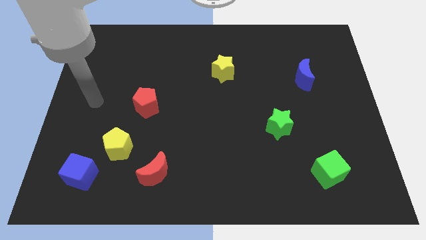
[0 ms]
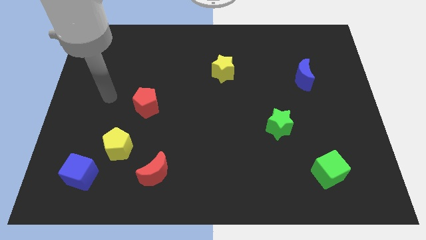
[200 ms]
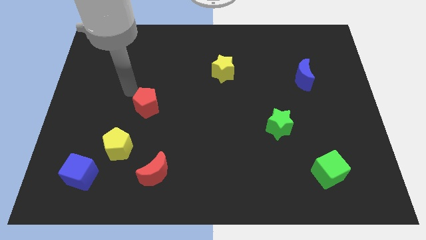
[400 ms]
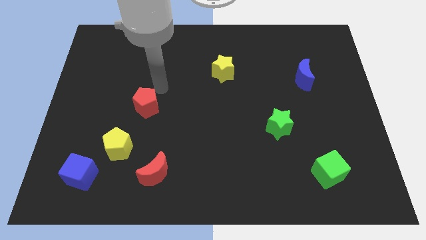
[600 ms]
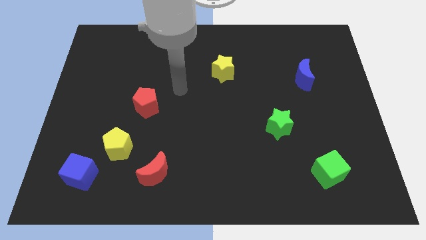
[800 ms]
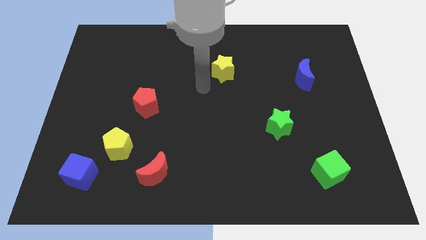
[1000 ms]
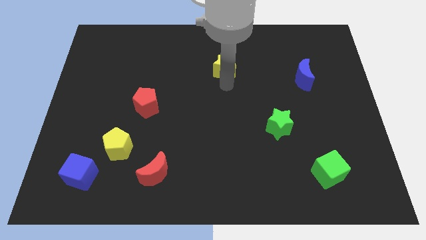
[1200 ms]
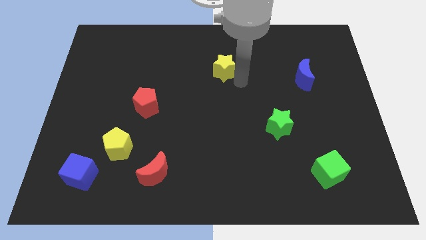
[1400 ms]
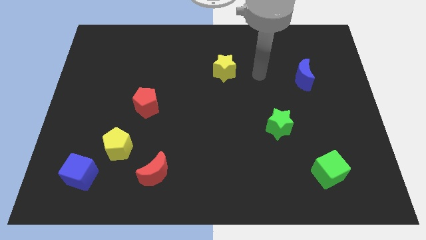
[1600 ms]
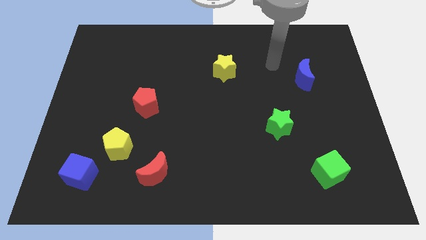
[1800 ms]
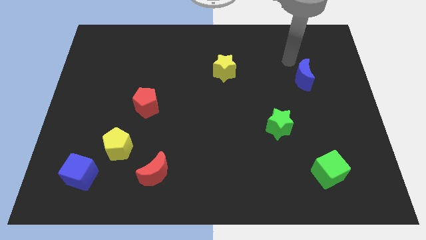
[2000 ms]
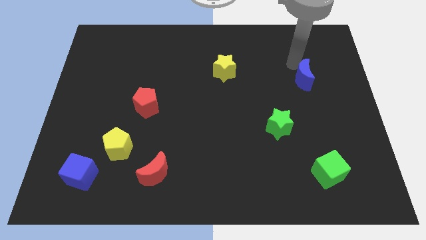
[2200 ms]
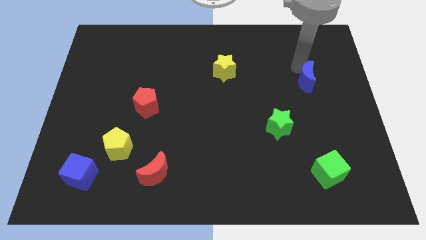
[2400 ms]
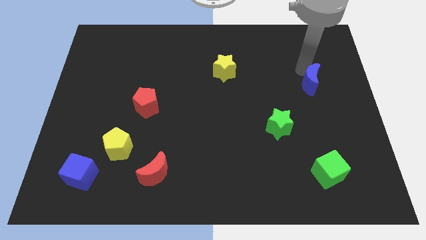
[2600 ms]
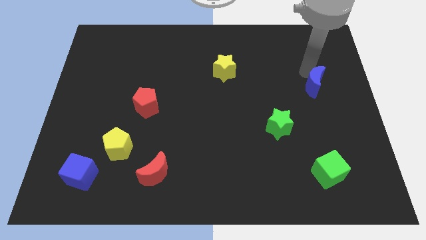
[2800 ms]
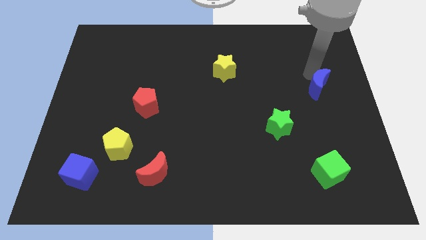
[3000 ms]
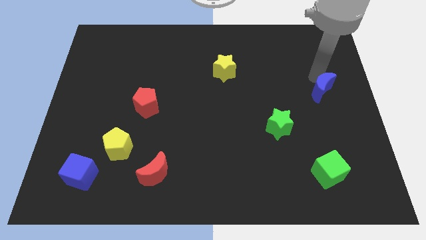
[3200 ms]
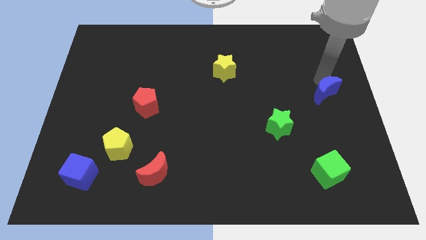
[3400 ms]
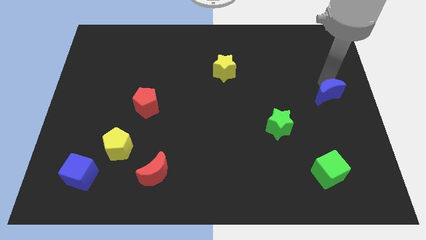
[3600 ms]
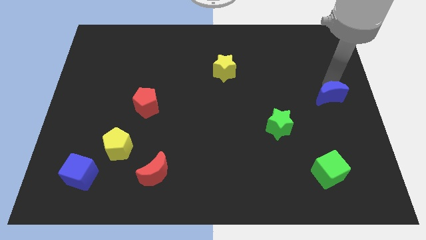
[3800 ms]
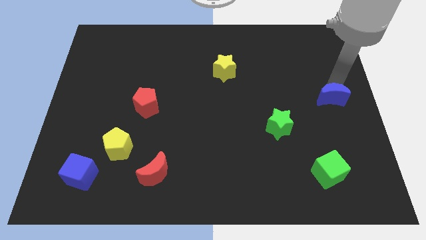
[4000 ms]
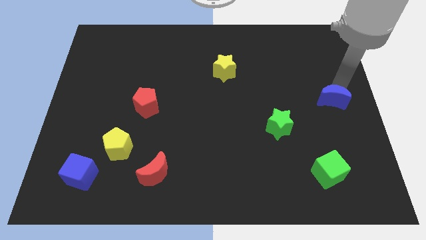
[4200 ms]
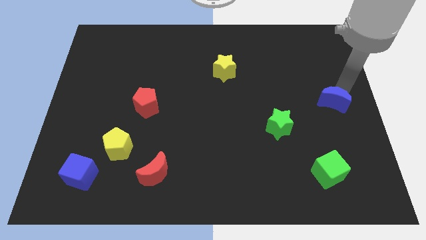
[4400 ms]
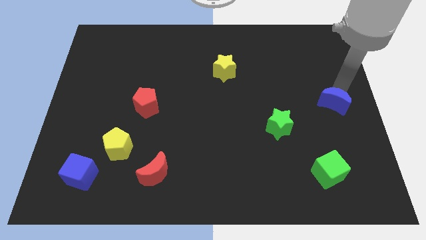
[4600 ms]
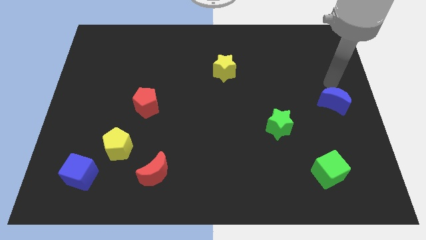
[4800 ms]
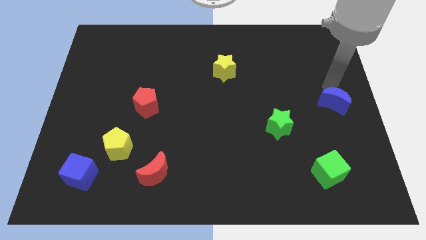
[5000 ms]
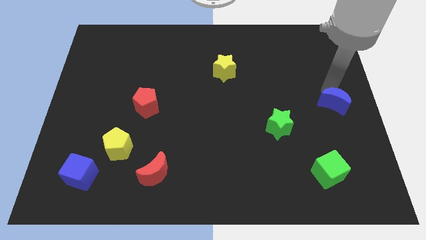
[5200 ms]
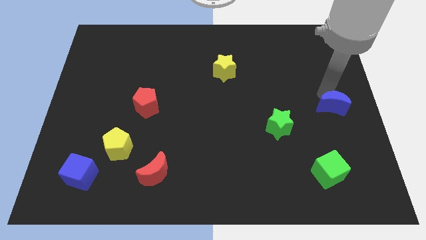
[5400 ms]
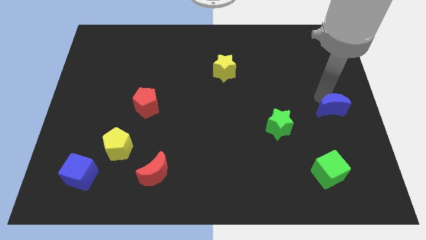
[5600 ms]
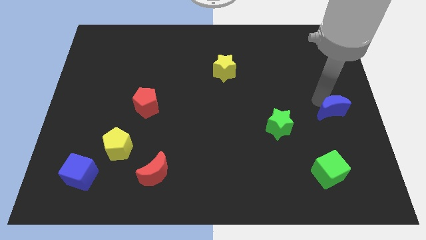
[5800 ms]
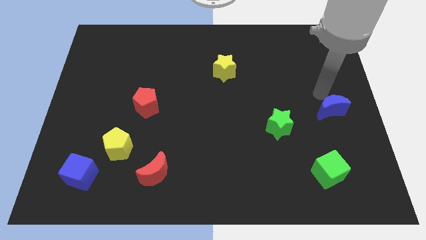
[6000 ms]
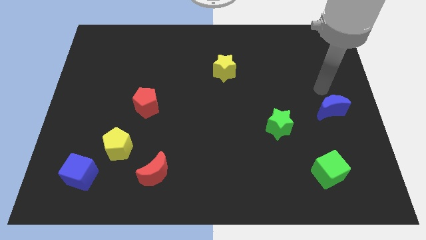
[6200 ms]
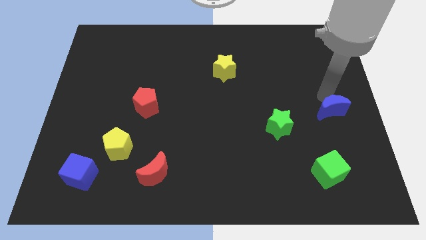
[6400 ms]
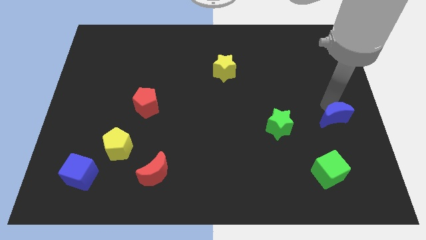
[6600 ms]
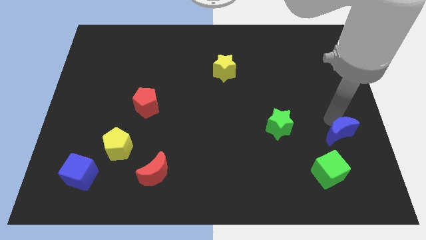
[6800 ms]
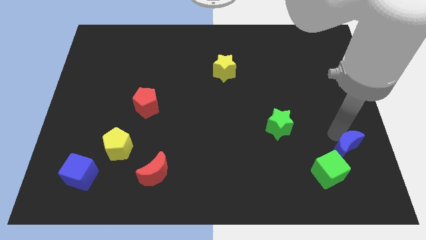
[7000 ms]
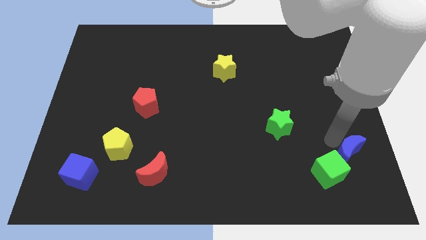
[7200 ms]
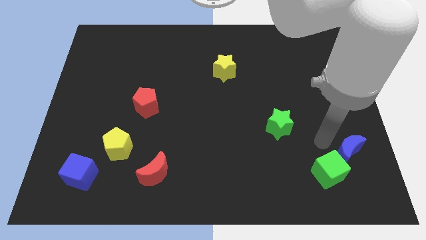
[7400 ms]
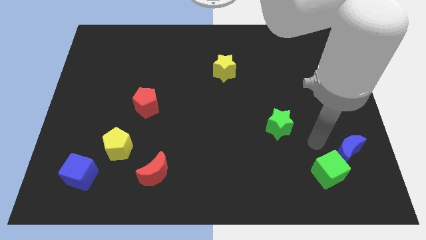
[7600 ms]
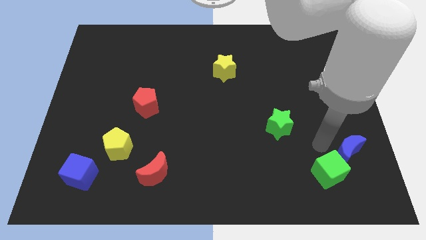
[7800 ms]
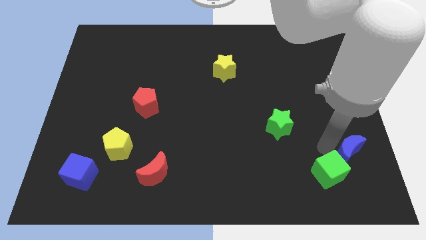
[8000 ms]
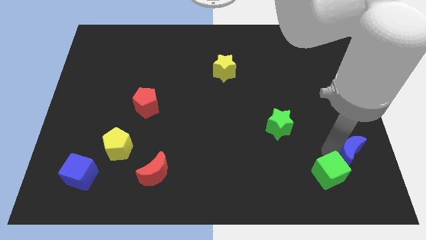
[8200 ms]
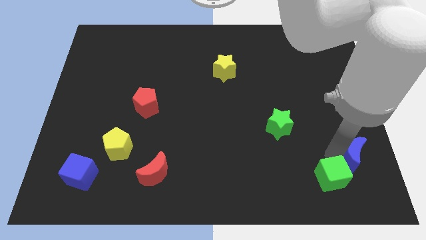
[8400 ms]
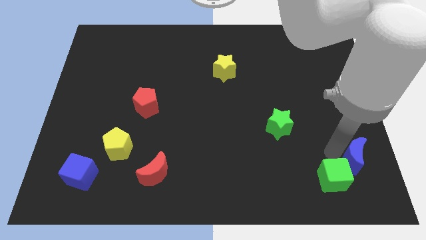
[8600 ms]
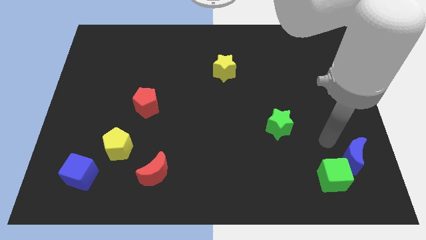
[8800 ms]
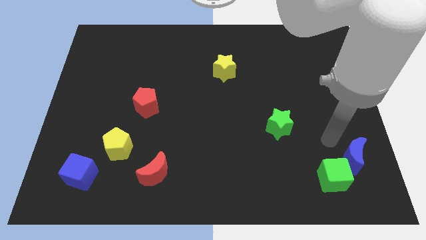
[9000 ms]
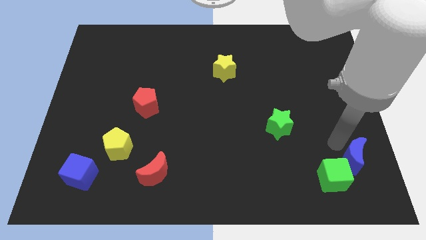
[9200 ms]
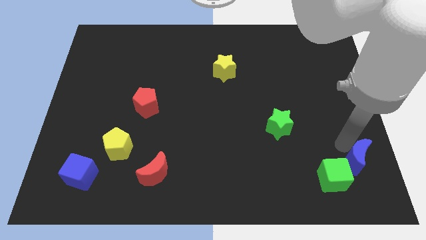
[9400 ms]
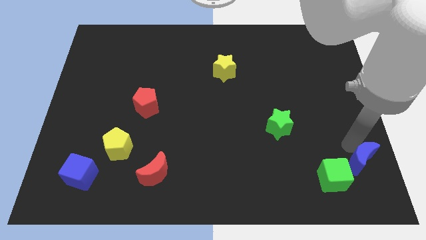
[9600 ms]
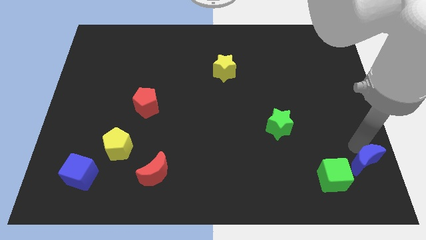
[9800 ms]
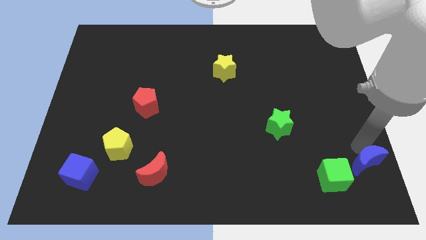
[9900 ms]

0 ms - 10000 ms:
slide the blue moon to the bottom right corner
